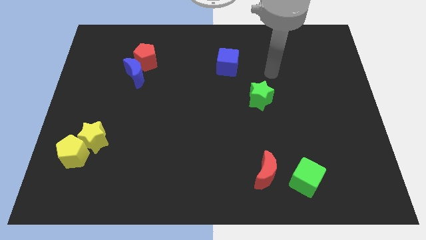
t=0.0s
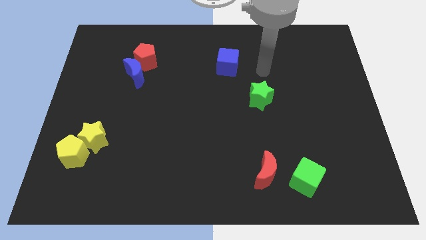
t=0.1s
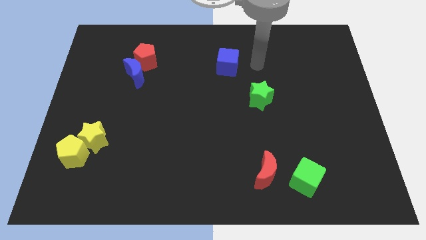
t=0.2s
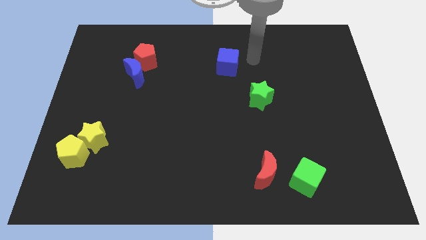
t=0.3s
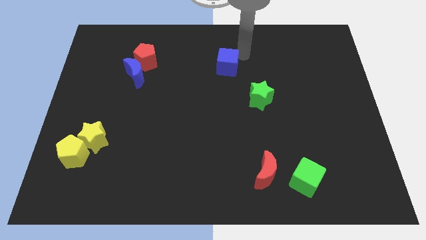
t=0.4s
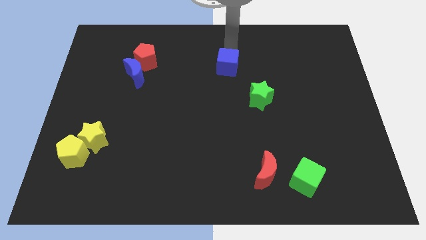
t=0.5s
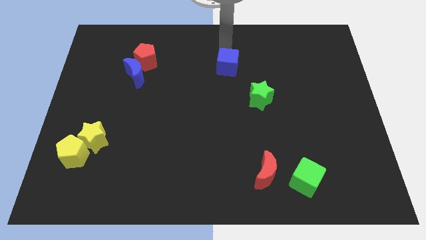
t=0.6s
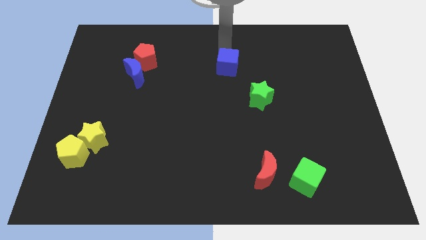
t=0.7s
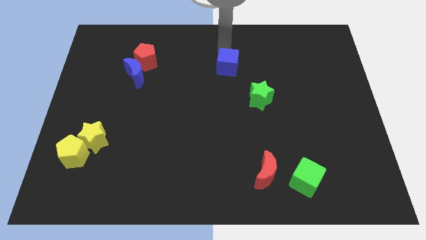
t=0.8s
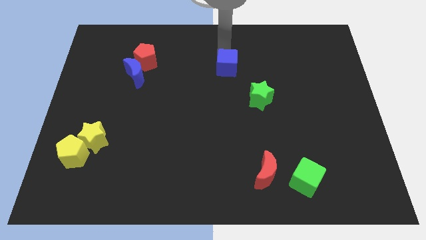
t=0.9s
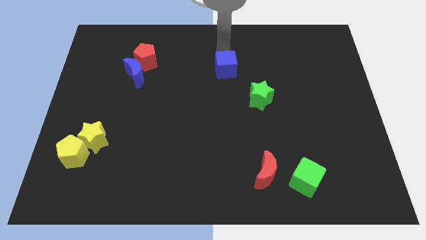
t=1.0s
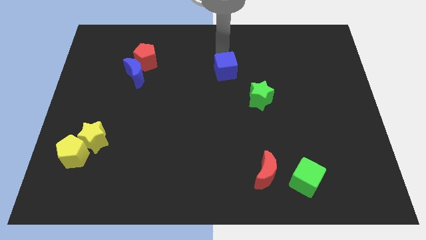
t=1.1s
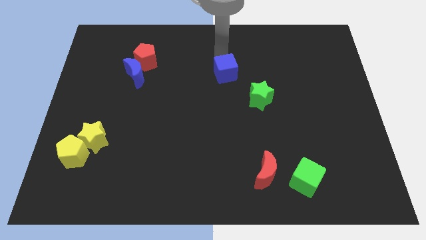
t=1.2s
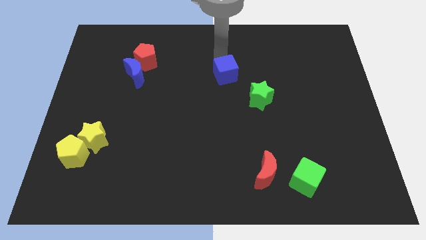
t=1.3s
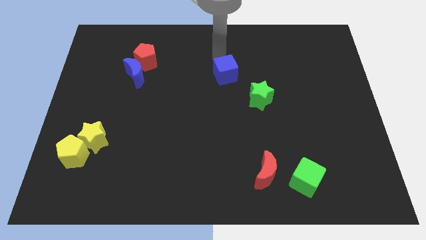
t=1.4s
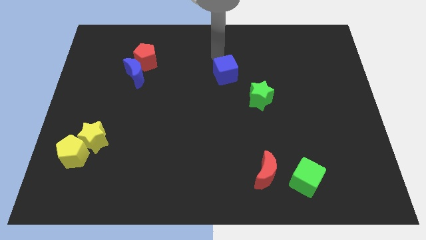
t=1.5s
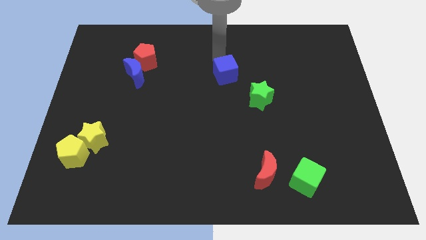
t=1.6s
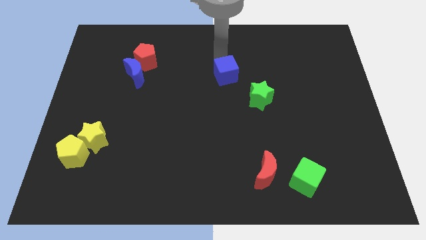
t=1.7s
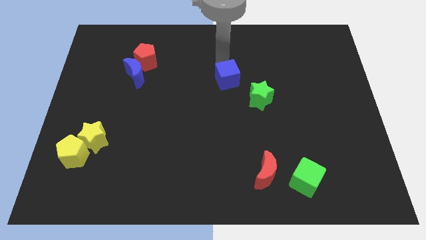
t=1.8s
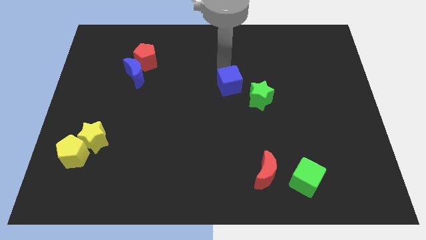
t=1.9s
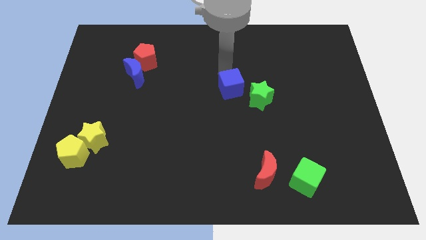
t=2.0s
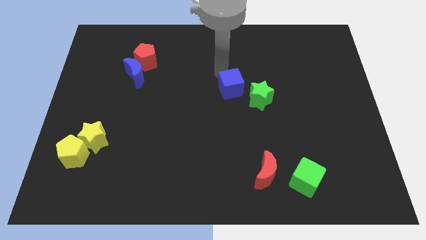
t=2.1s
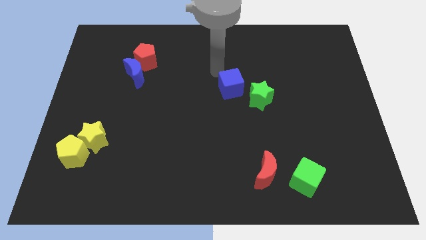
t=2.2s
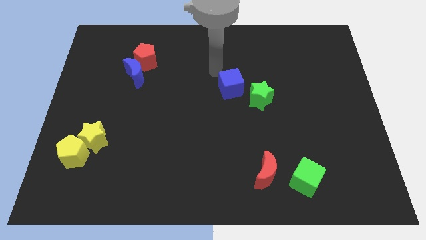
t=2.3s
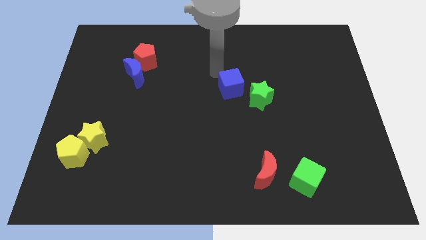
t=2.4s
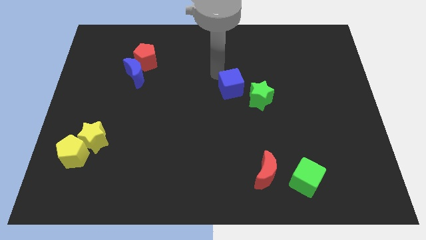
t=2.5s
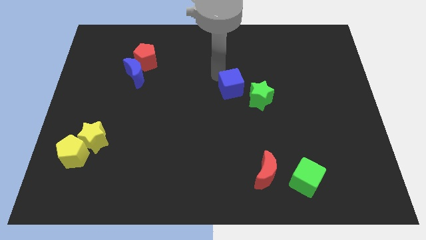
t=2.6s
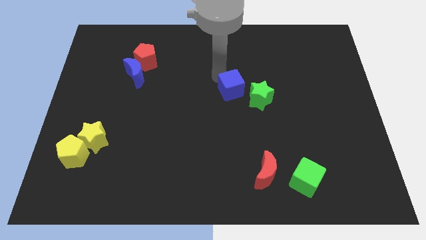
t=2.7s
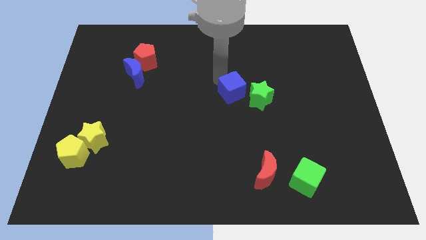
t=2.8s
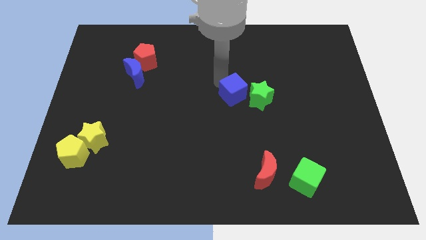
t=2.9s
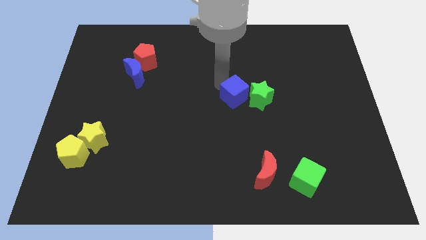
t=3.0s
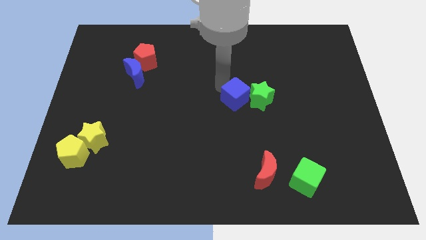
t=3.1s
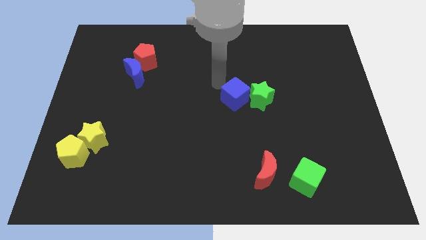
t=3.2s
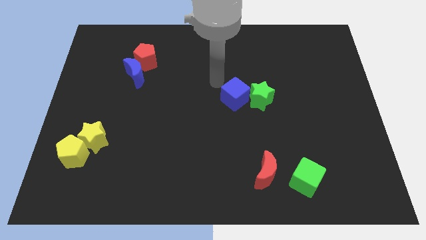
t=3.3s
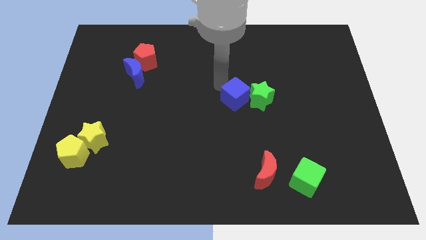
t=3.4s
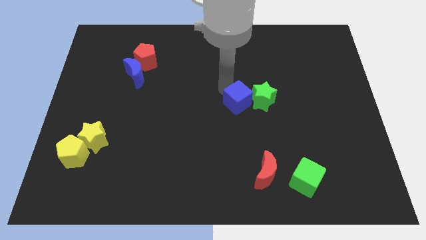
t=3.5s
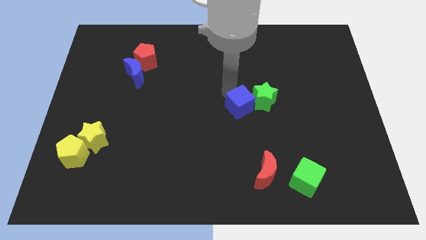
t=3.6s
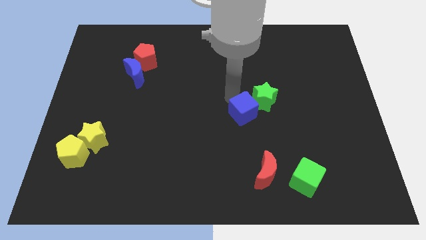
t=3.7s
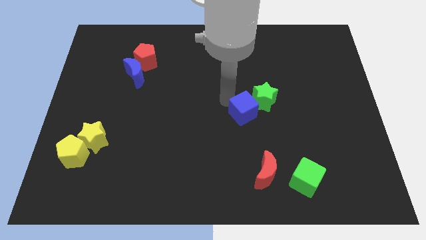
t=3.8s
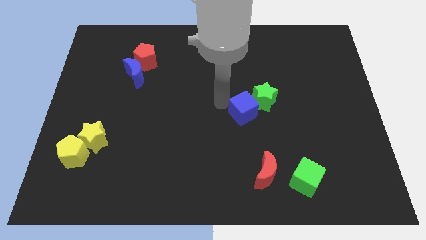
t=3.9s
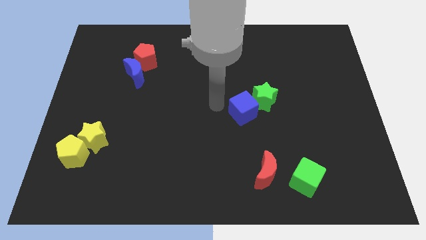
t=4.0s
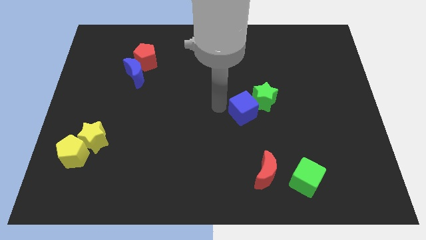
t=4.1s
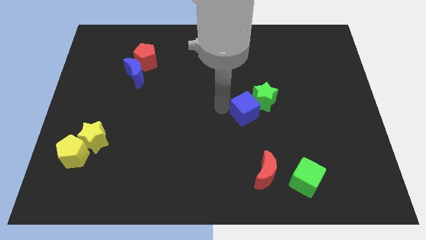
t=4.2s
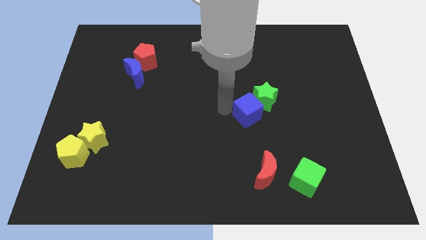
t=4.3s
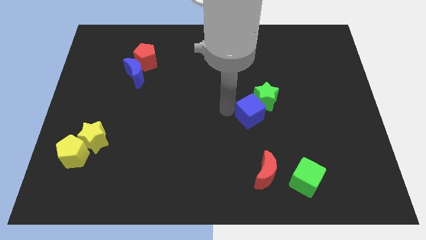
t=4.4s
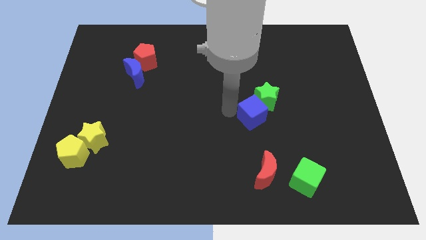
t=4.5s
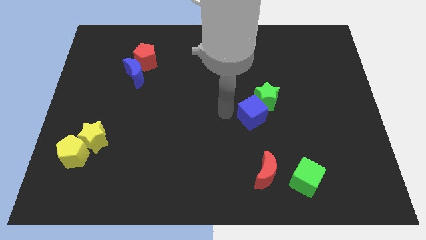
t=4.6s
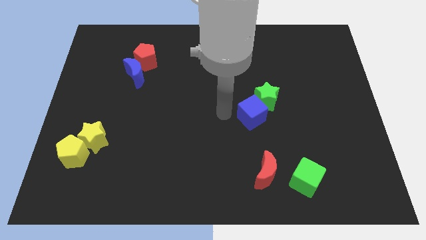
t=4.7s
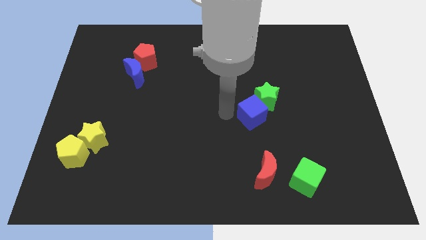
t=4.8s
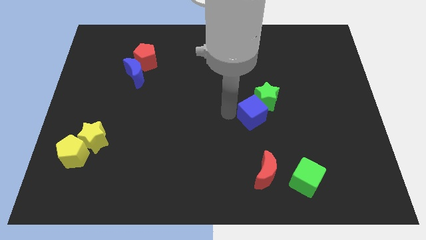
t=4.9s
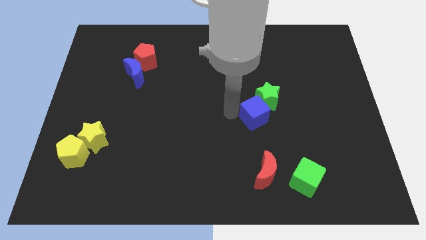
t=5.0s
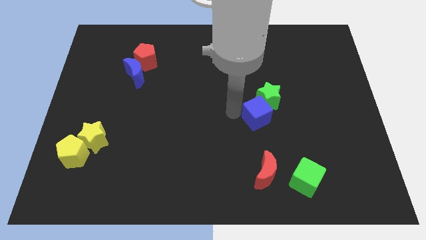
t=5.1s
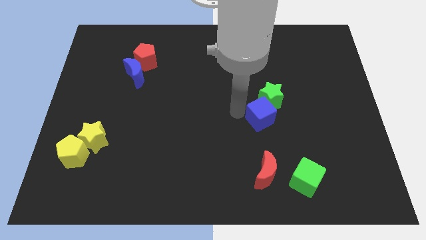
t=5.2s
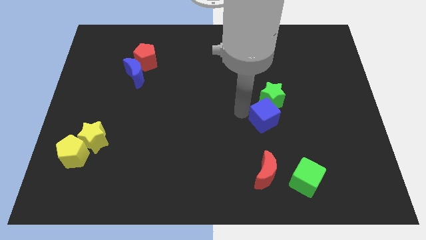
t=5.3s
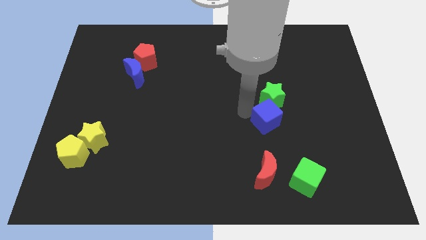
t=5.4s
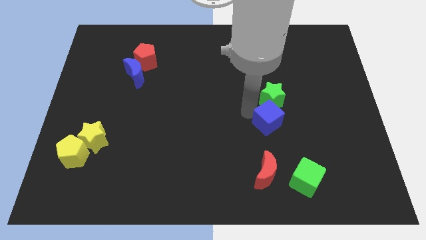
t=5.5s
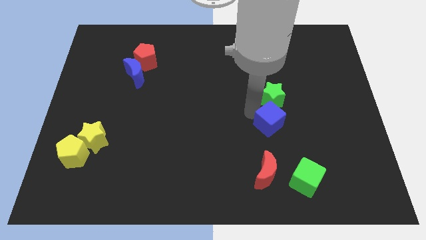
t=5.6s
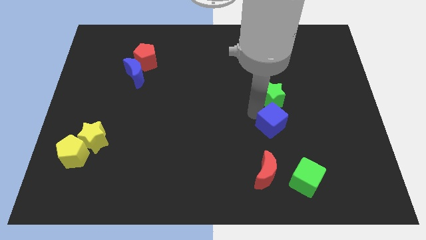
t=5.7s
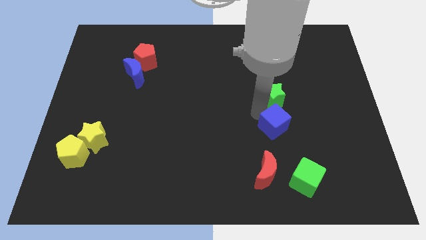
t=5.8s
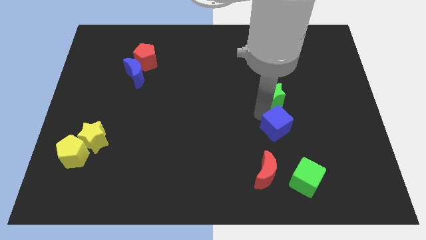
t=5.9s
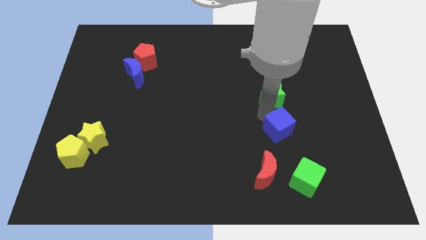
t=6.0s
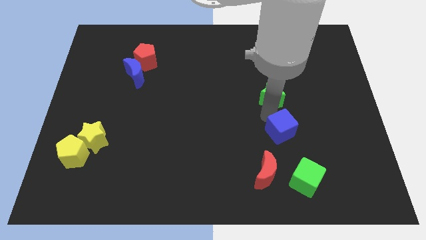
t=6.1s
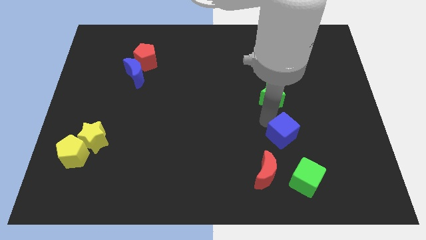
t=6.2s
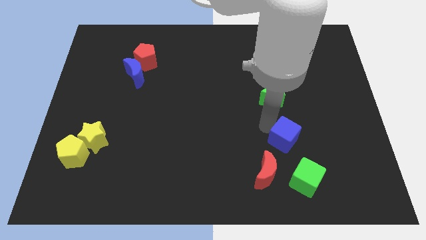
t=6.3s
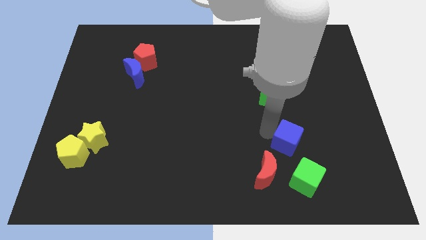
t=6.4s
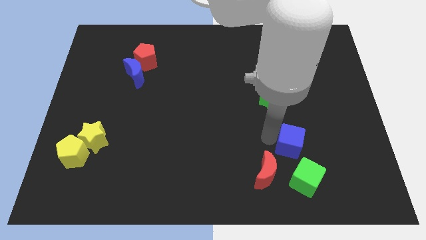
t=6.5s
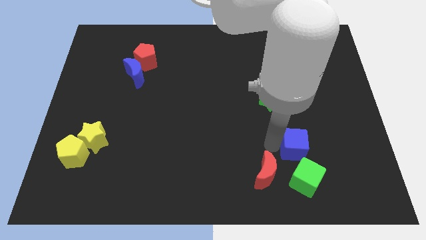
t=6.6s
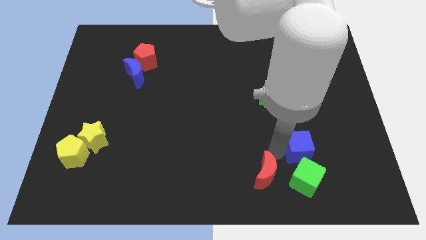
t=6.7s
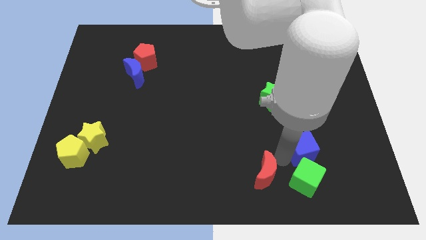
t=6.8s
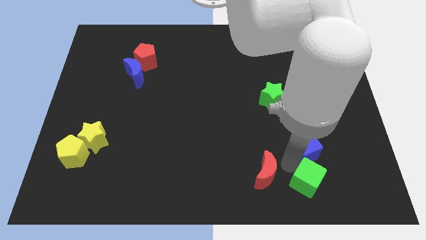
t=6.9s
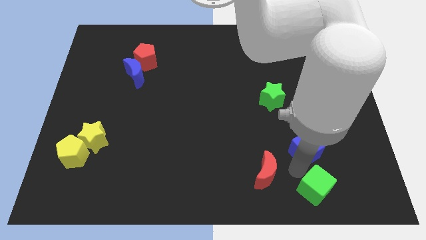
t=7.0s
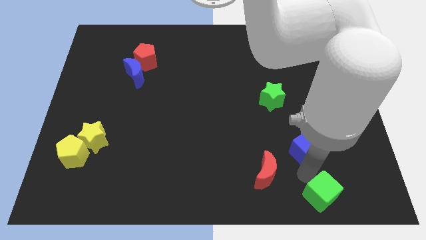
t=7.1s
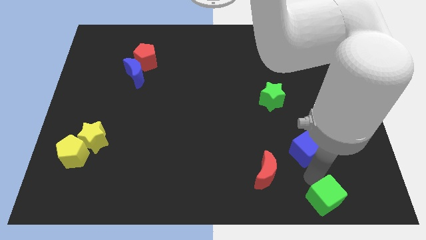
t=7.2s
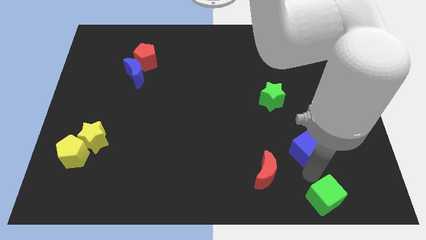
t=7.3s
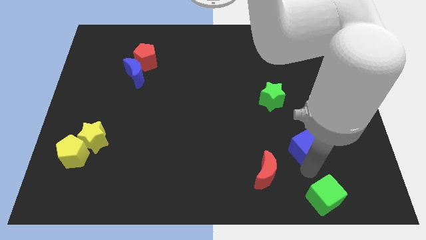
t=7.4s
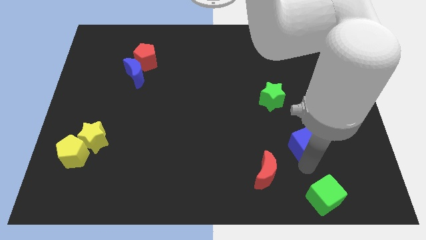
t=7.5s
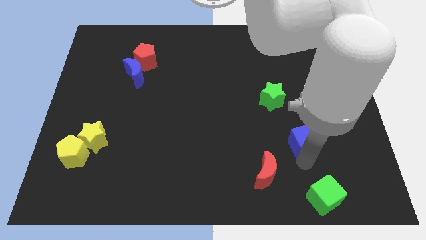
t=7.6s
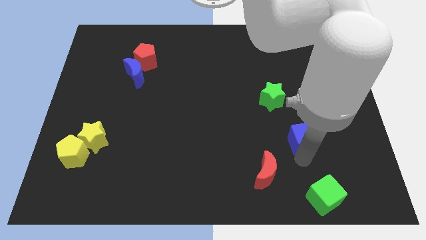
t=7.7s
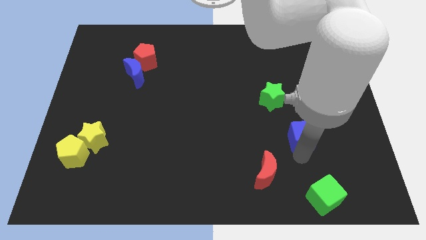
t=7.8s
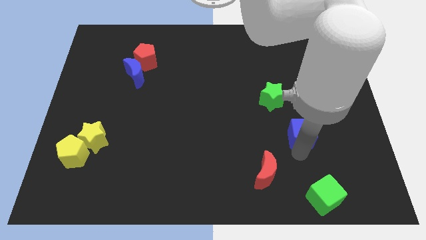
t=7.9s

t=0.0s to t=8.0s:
push the blue cube to the bottom right of the green star
